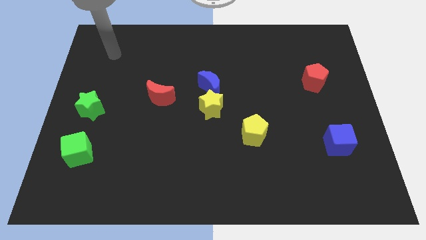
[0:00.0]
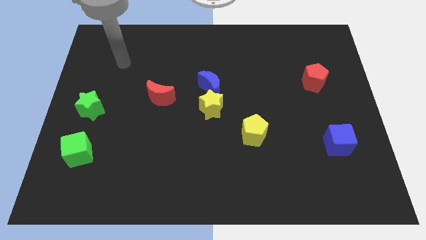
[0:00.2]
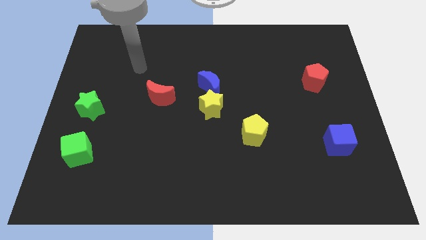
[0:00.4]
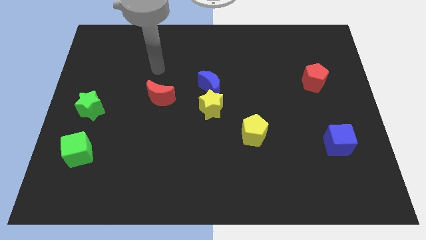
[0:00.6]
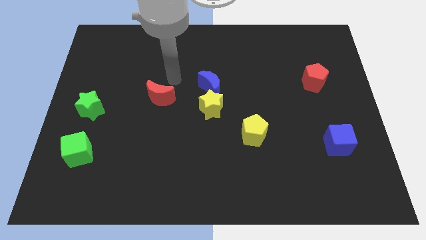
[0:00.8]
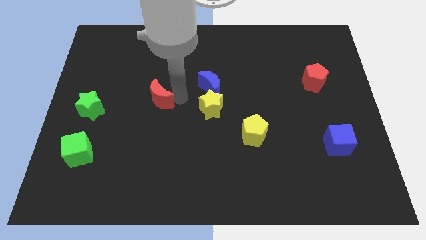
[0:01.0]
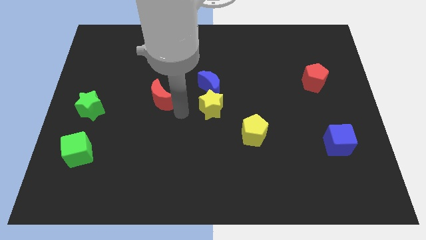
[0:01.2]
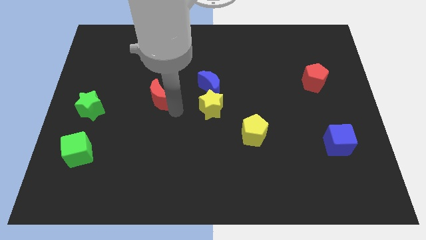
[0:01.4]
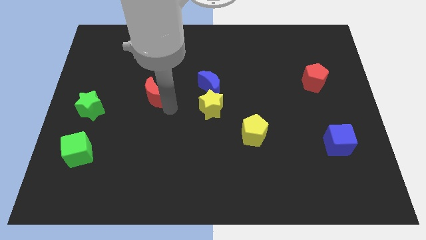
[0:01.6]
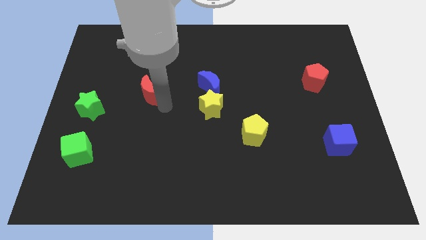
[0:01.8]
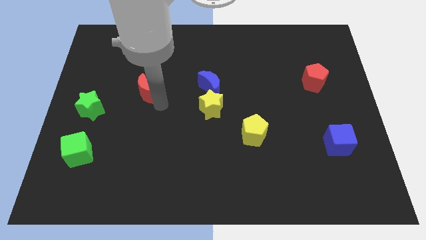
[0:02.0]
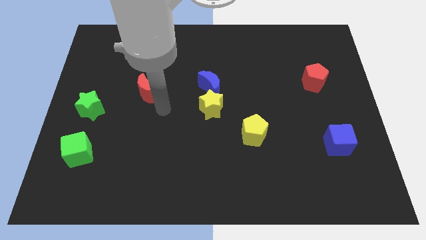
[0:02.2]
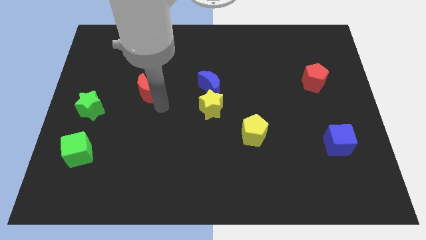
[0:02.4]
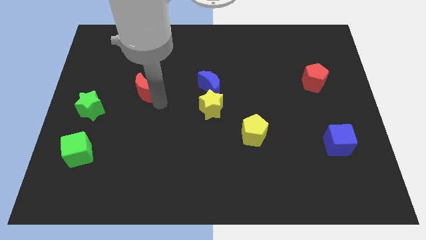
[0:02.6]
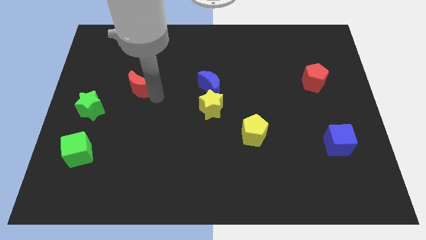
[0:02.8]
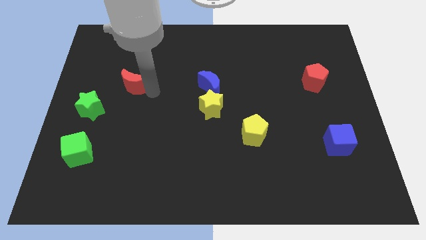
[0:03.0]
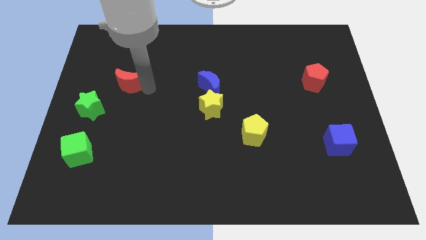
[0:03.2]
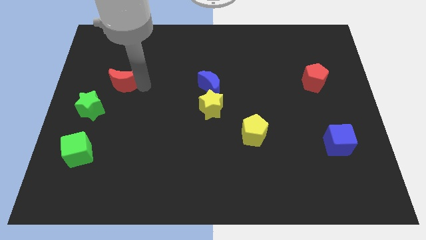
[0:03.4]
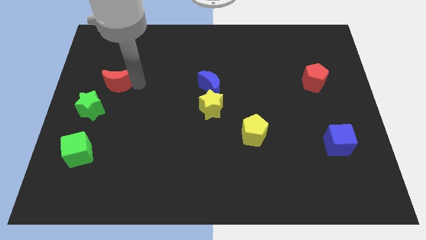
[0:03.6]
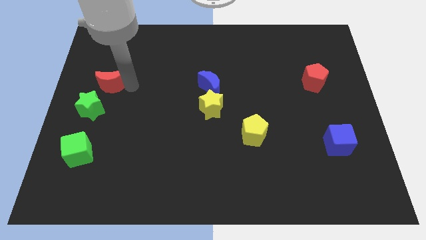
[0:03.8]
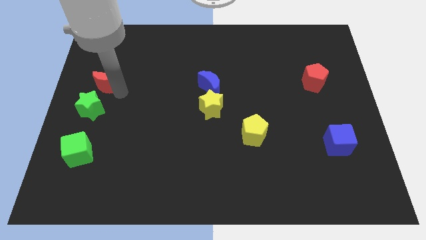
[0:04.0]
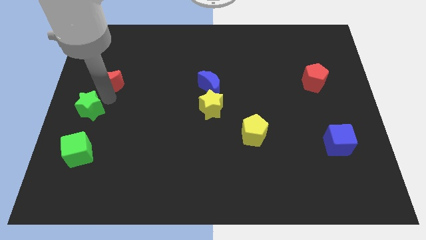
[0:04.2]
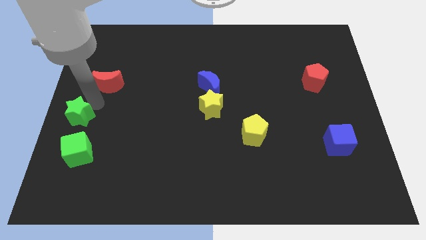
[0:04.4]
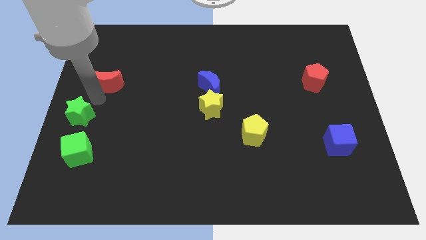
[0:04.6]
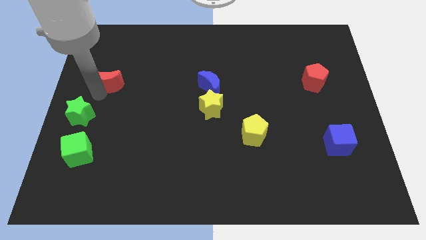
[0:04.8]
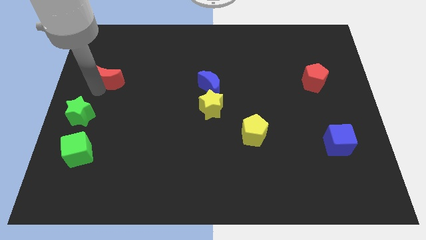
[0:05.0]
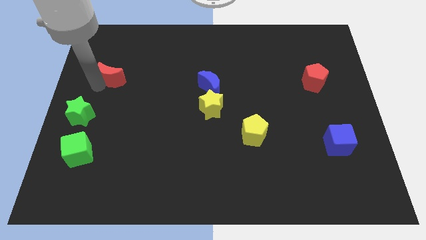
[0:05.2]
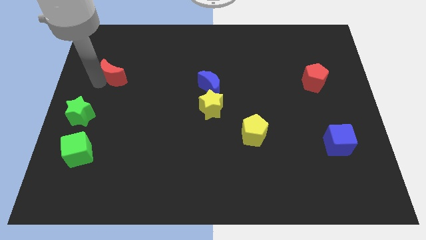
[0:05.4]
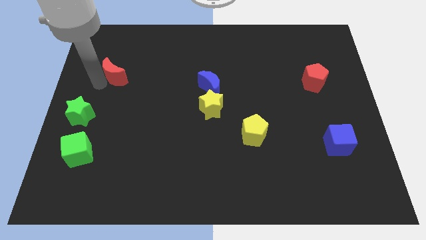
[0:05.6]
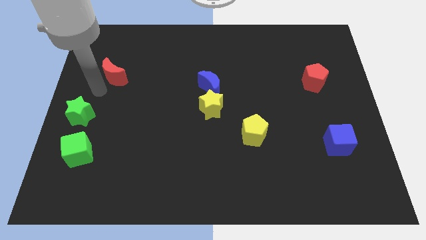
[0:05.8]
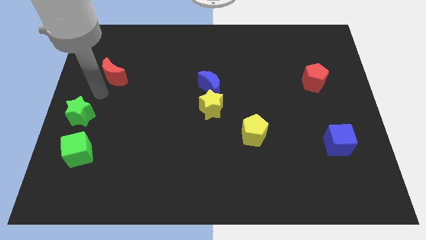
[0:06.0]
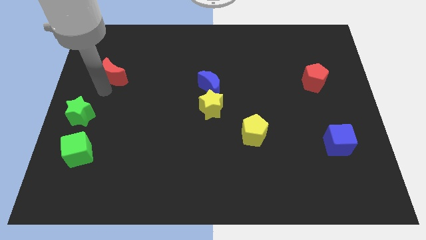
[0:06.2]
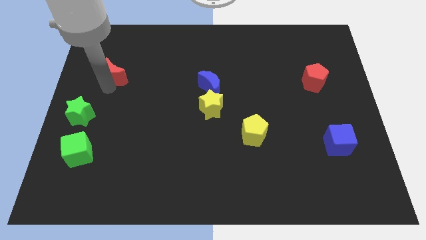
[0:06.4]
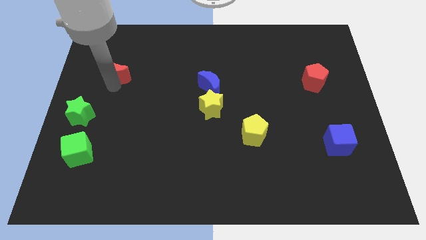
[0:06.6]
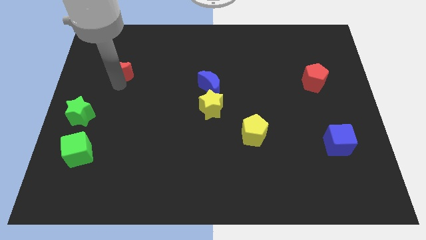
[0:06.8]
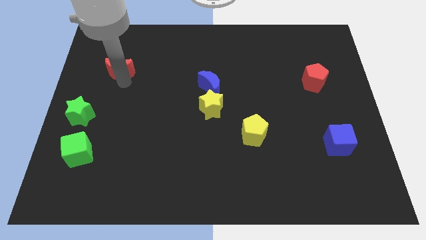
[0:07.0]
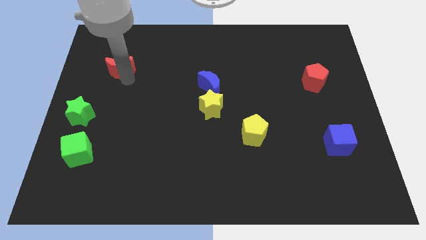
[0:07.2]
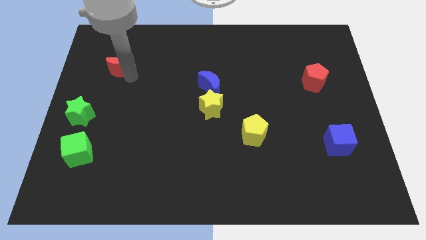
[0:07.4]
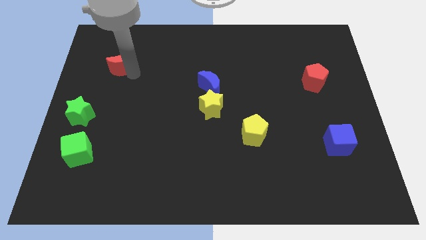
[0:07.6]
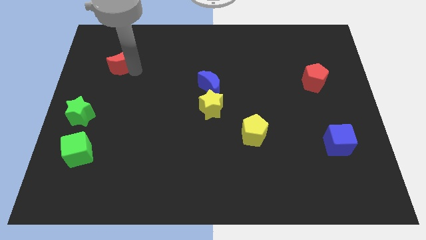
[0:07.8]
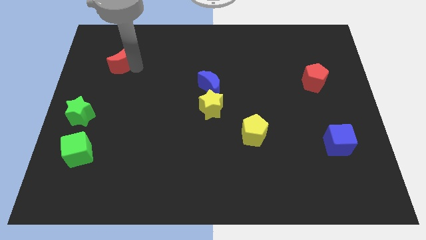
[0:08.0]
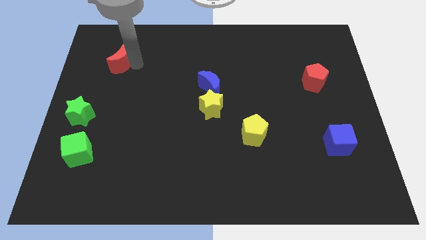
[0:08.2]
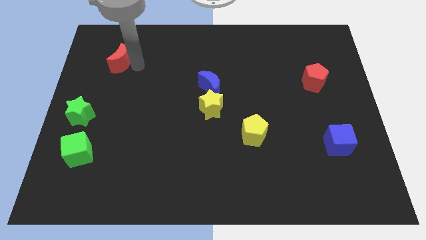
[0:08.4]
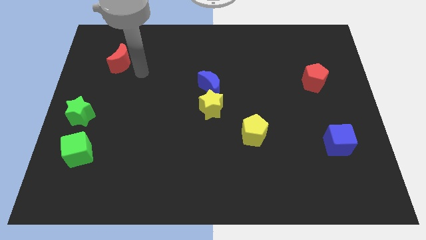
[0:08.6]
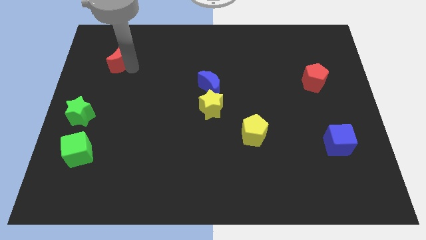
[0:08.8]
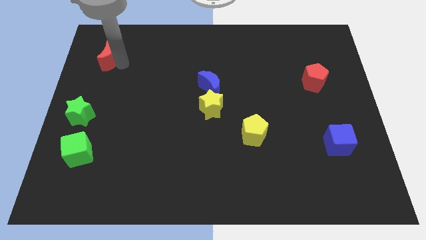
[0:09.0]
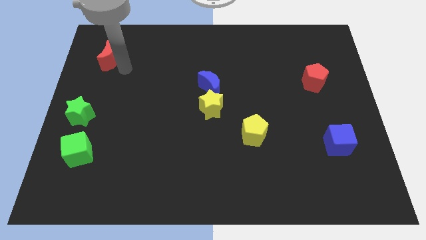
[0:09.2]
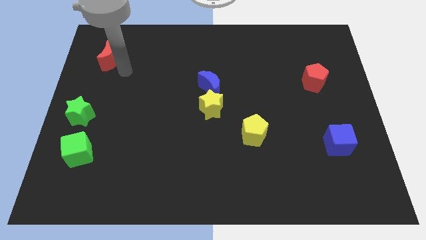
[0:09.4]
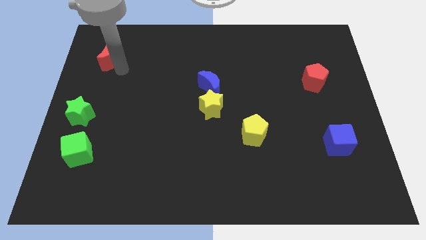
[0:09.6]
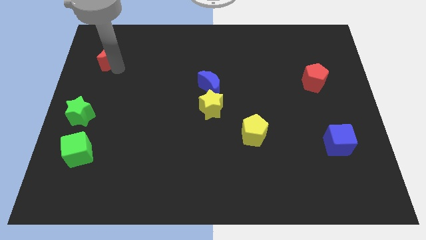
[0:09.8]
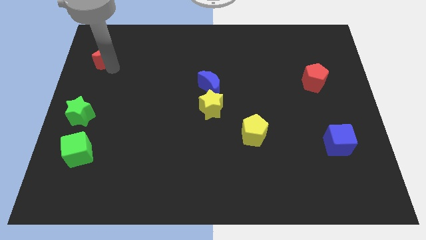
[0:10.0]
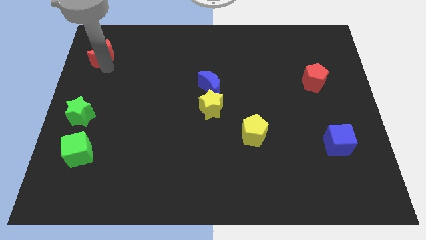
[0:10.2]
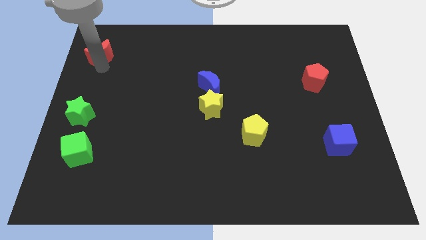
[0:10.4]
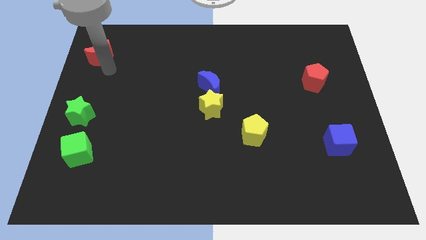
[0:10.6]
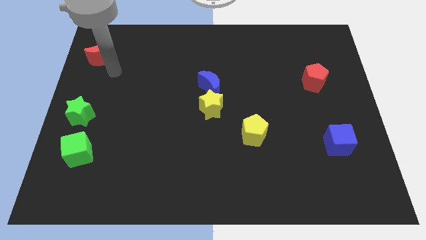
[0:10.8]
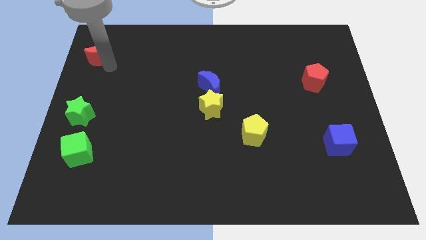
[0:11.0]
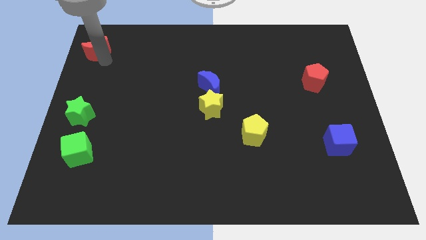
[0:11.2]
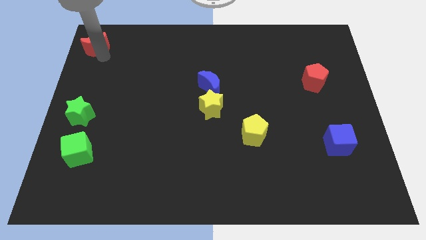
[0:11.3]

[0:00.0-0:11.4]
push the red moon to the top left corner

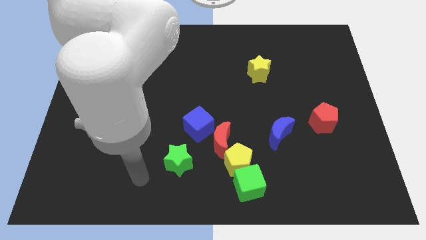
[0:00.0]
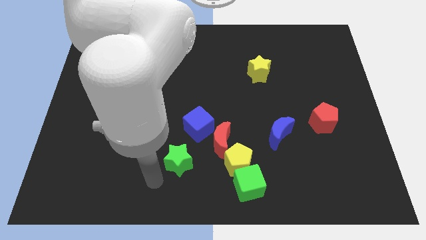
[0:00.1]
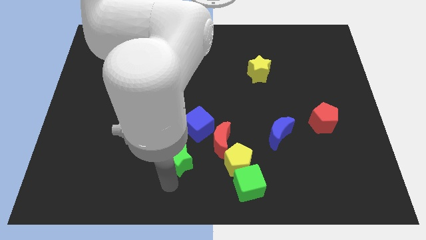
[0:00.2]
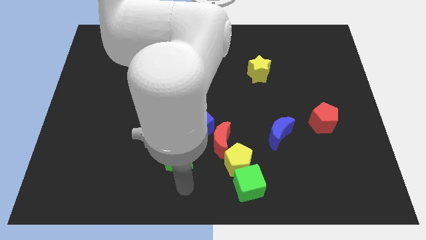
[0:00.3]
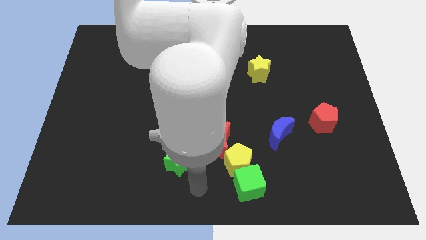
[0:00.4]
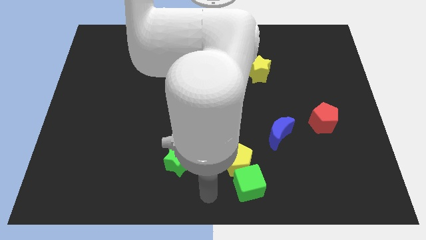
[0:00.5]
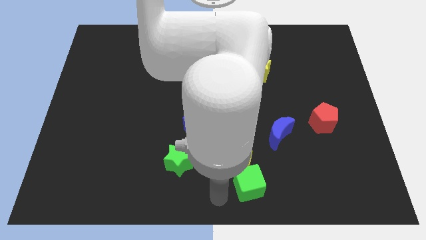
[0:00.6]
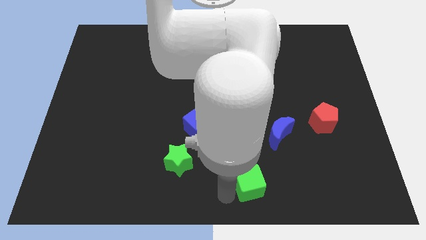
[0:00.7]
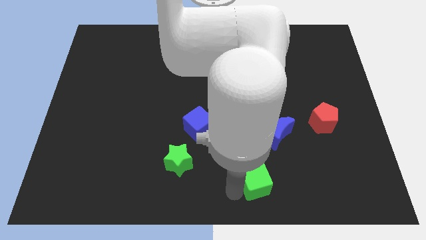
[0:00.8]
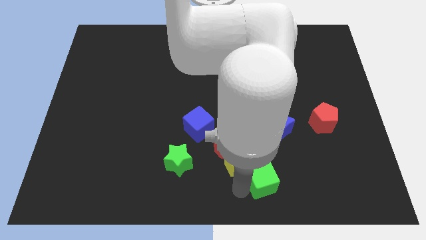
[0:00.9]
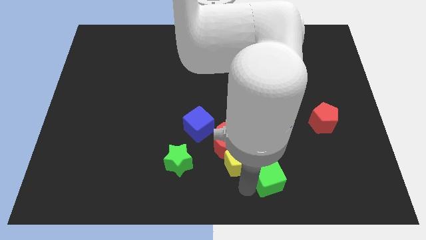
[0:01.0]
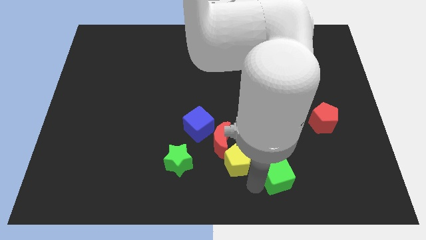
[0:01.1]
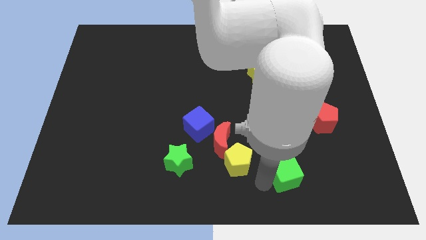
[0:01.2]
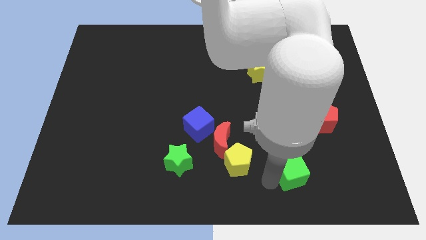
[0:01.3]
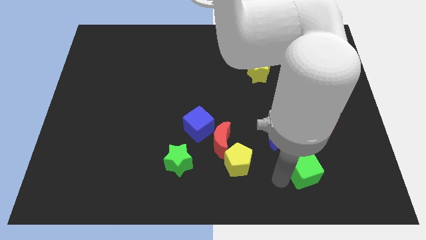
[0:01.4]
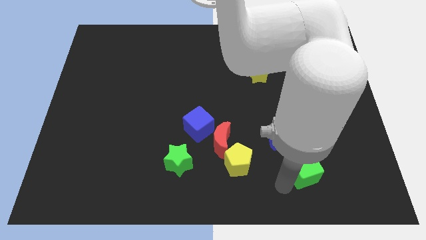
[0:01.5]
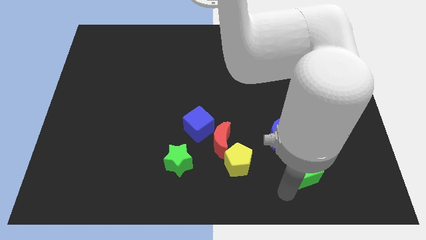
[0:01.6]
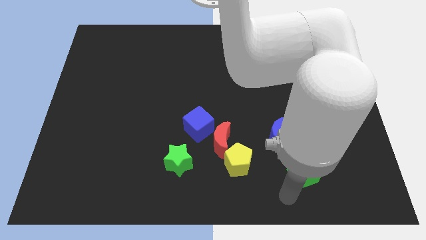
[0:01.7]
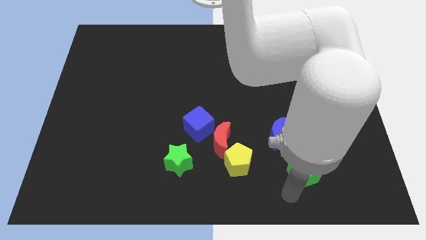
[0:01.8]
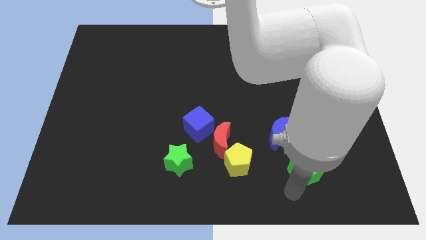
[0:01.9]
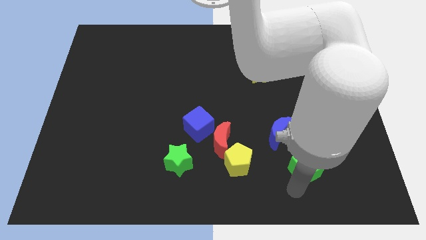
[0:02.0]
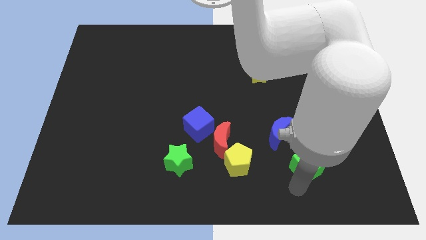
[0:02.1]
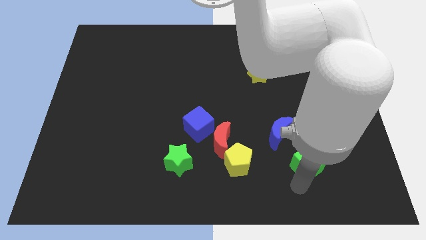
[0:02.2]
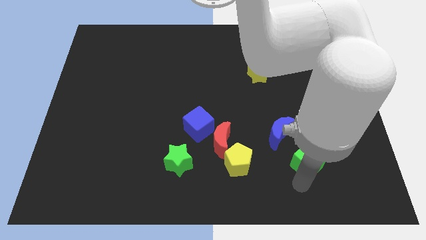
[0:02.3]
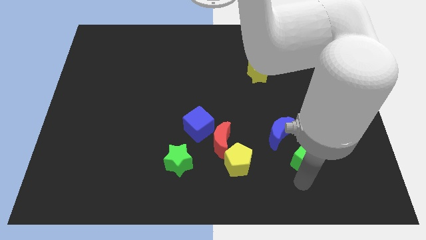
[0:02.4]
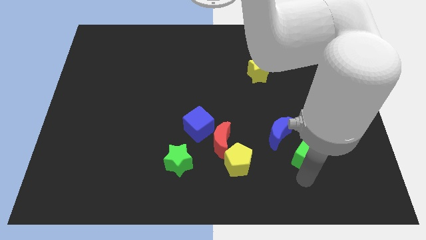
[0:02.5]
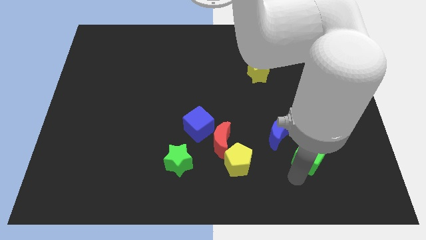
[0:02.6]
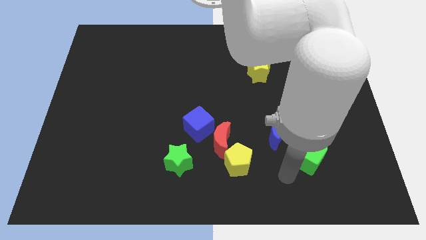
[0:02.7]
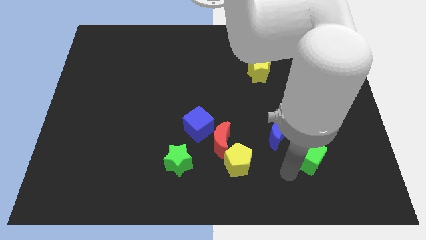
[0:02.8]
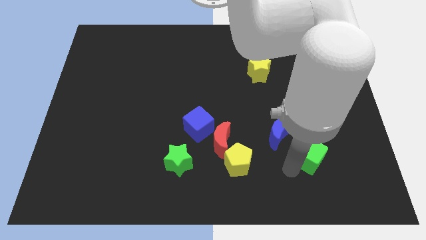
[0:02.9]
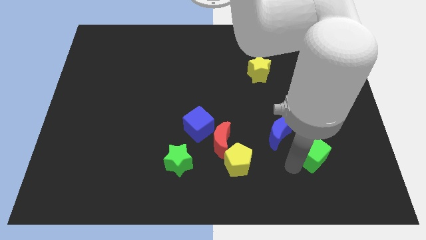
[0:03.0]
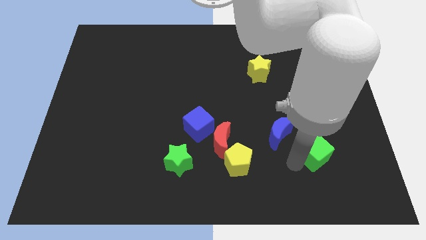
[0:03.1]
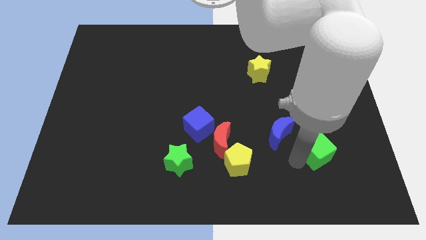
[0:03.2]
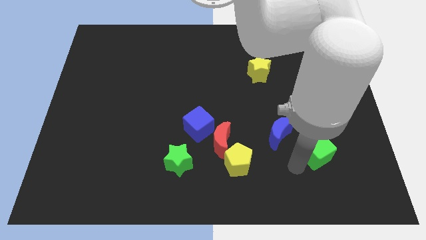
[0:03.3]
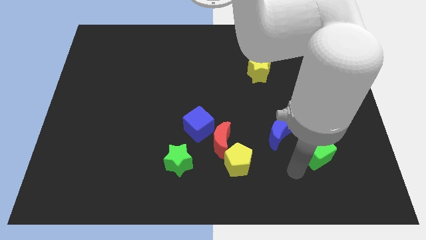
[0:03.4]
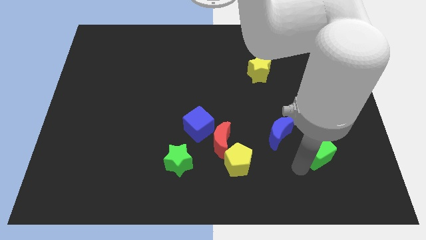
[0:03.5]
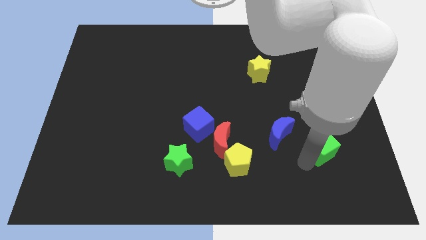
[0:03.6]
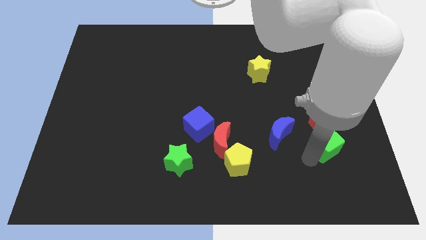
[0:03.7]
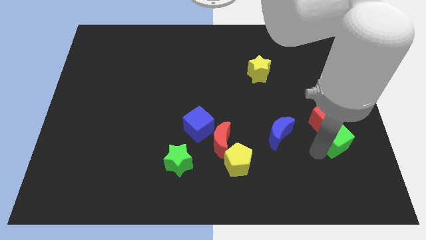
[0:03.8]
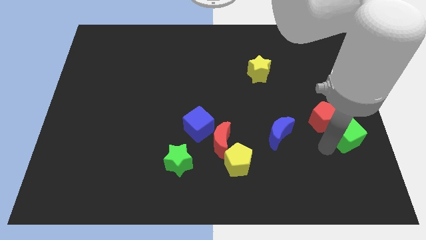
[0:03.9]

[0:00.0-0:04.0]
push the green cube to the right side of the board
